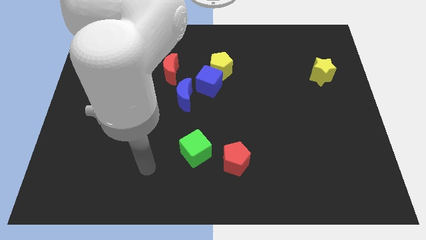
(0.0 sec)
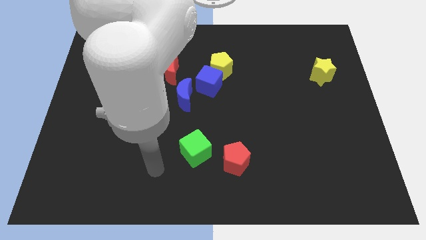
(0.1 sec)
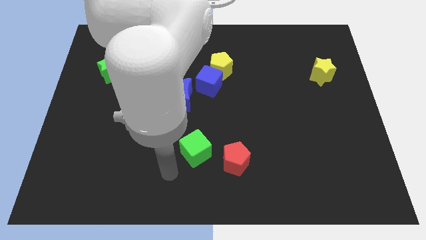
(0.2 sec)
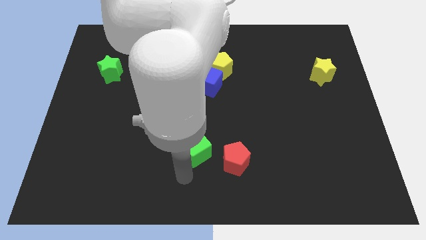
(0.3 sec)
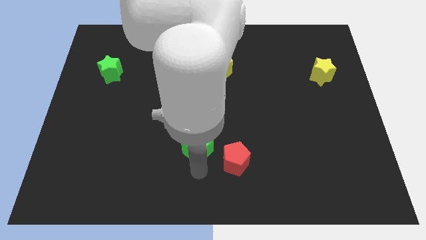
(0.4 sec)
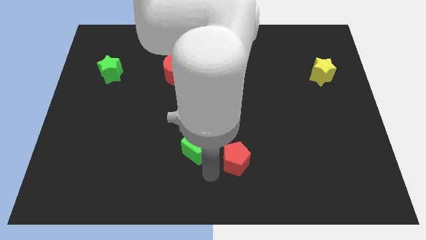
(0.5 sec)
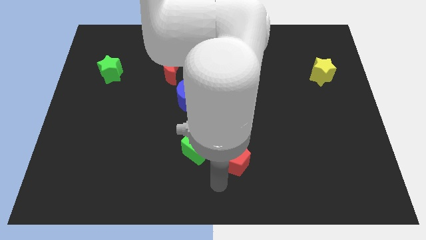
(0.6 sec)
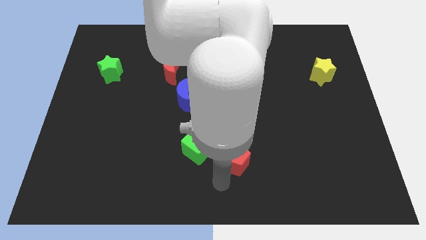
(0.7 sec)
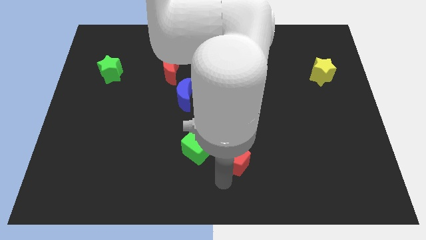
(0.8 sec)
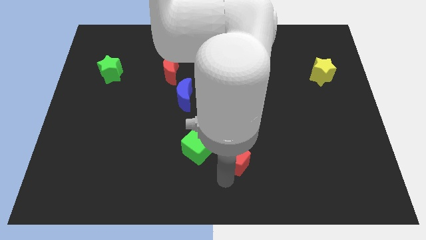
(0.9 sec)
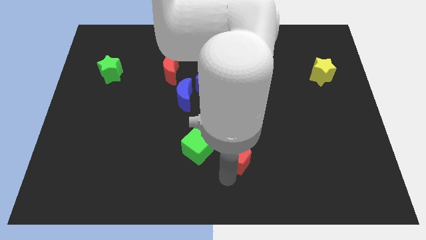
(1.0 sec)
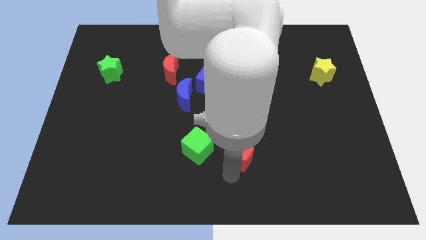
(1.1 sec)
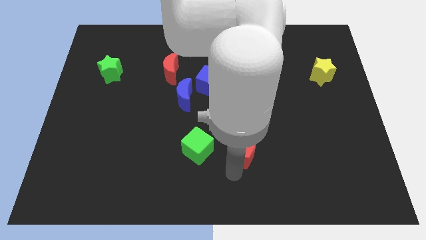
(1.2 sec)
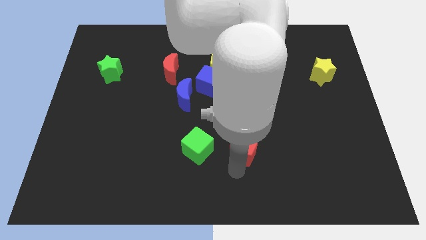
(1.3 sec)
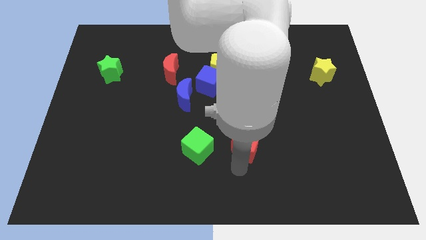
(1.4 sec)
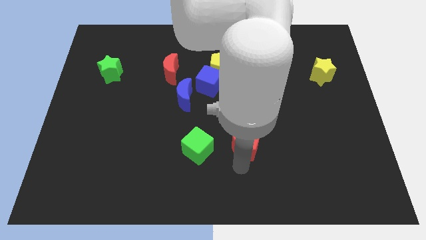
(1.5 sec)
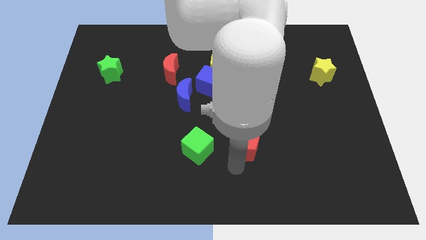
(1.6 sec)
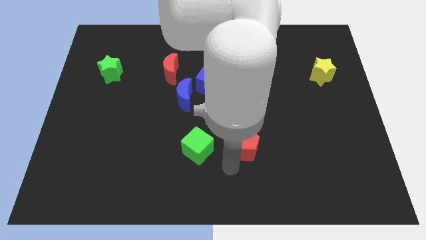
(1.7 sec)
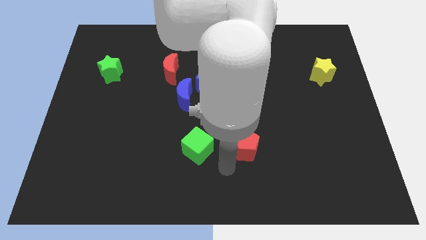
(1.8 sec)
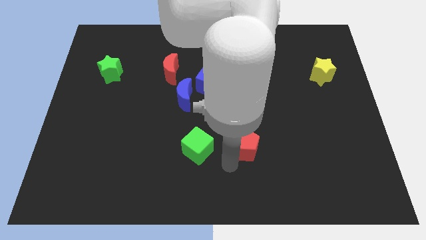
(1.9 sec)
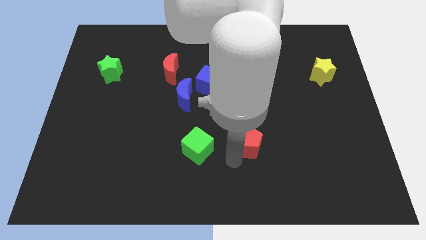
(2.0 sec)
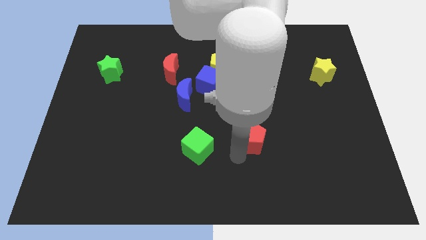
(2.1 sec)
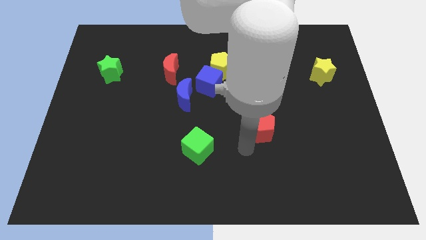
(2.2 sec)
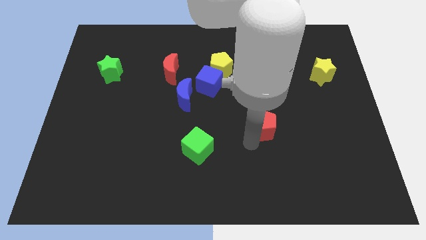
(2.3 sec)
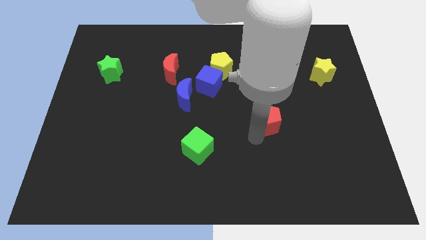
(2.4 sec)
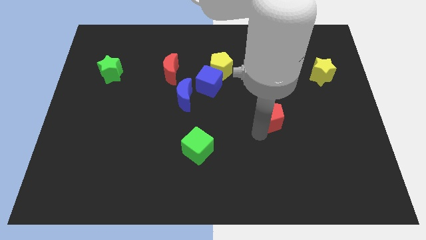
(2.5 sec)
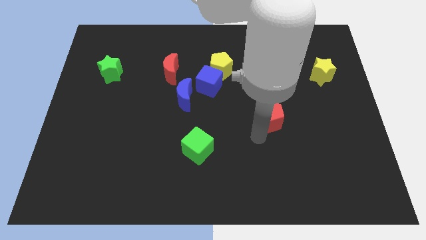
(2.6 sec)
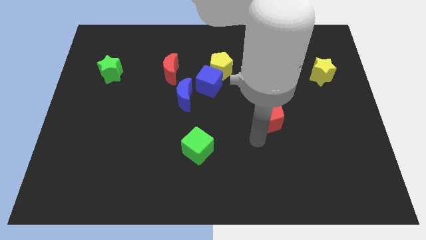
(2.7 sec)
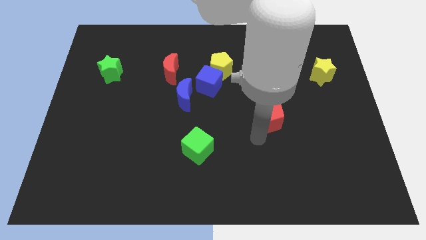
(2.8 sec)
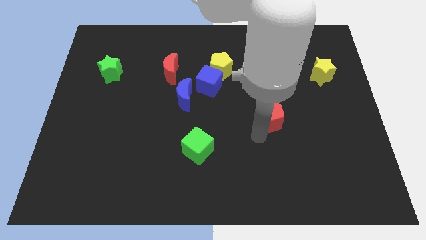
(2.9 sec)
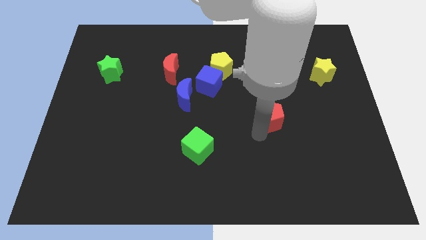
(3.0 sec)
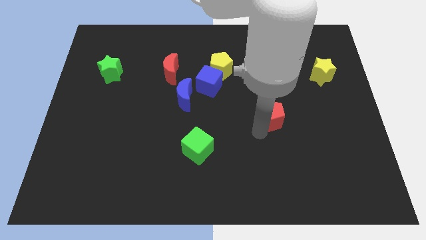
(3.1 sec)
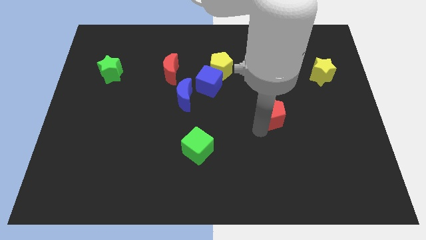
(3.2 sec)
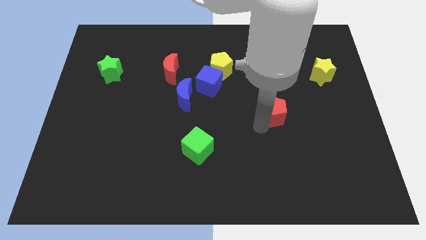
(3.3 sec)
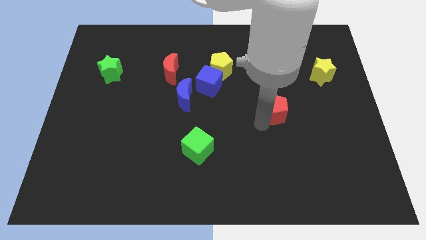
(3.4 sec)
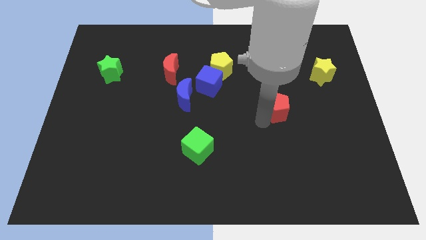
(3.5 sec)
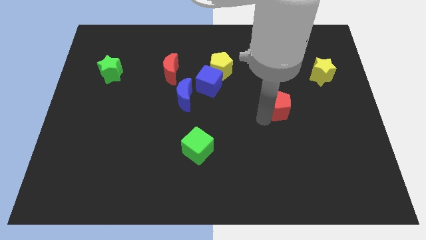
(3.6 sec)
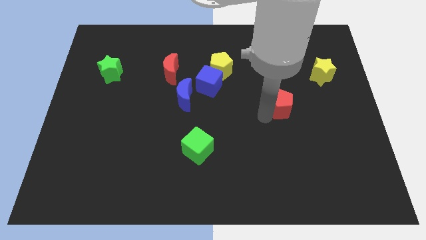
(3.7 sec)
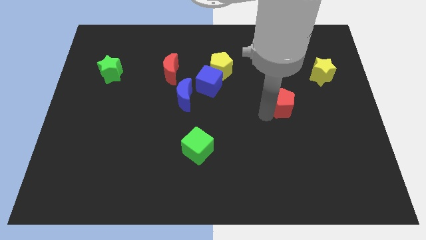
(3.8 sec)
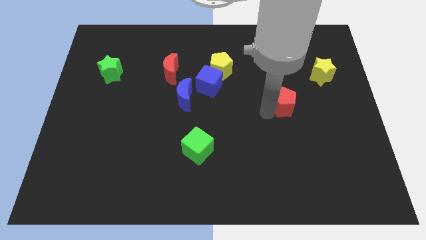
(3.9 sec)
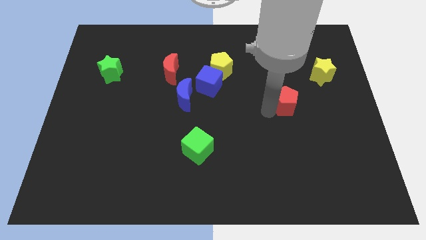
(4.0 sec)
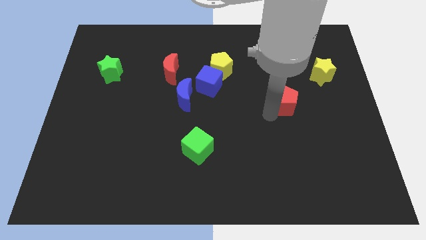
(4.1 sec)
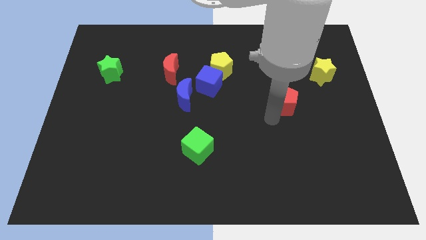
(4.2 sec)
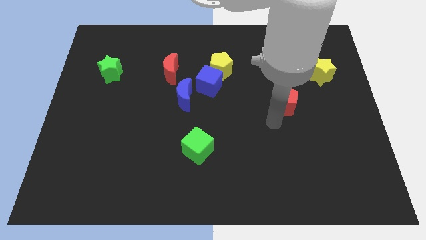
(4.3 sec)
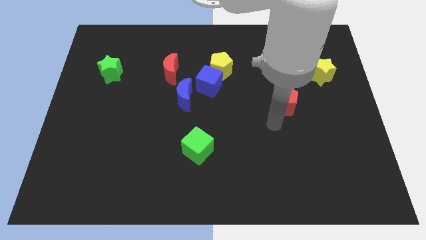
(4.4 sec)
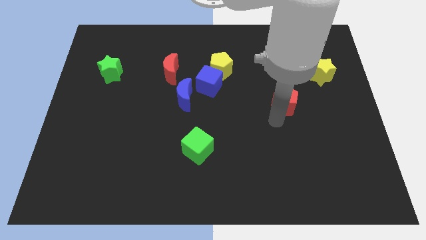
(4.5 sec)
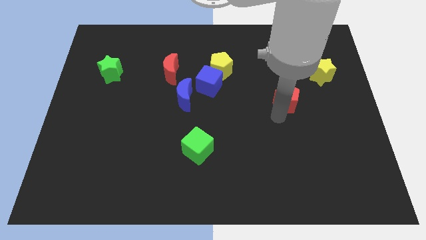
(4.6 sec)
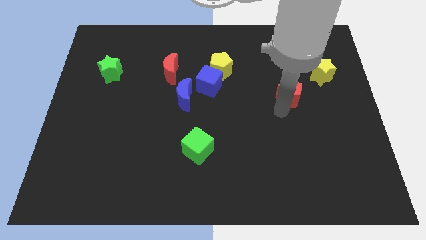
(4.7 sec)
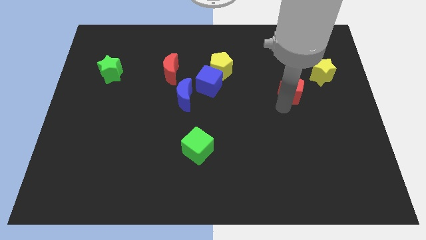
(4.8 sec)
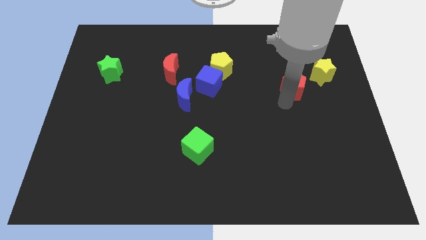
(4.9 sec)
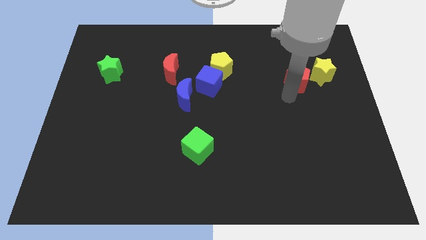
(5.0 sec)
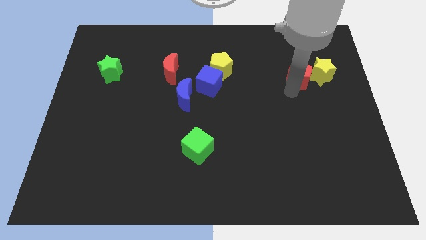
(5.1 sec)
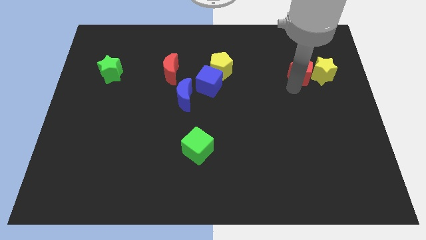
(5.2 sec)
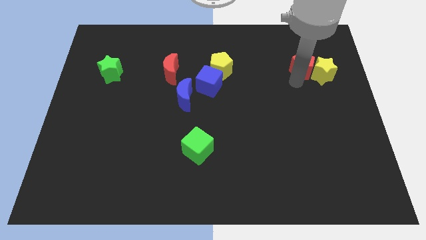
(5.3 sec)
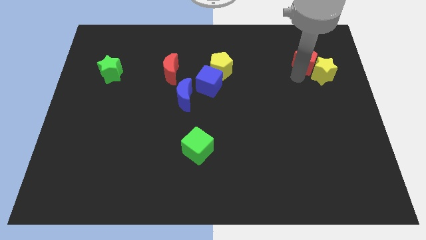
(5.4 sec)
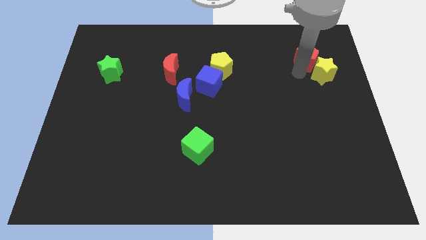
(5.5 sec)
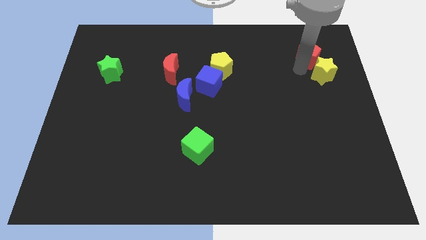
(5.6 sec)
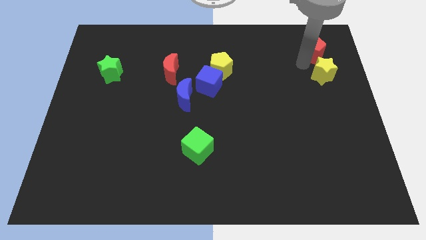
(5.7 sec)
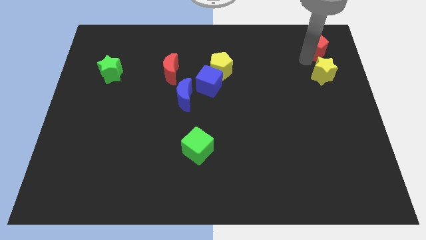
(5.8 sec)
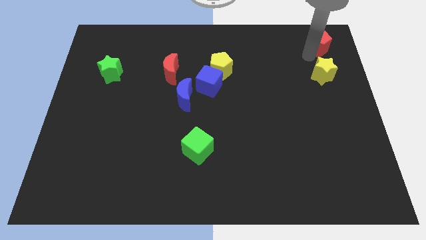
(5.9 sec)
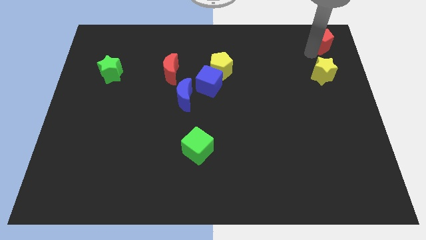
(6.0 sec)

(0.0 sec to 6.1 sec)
slide the red pentagon to the top right corner

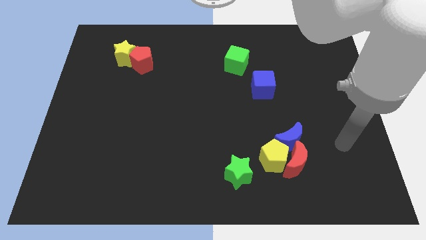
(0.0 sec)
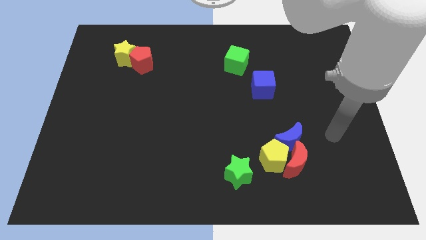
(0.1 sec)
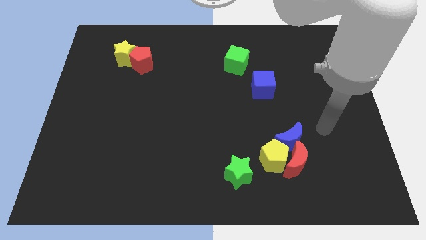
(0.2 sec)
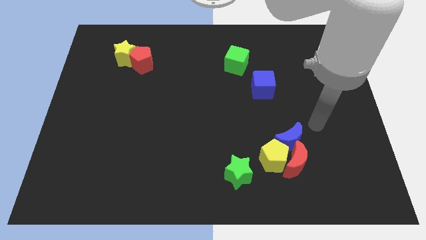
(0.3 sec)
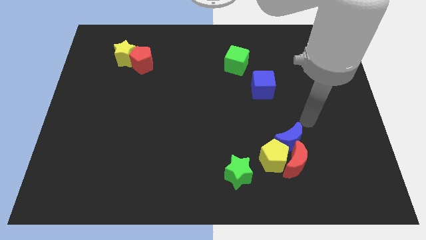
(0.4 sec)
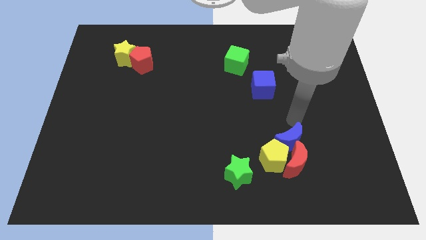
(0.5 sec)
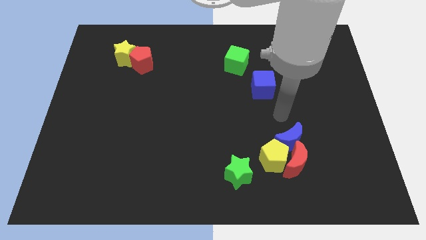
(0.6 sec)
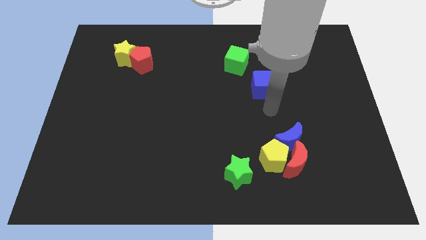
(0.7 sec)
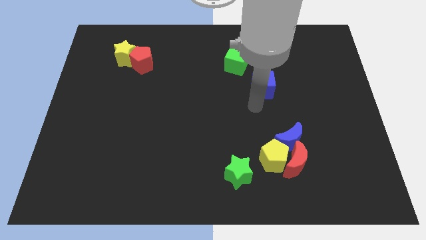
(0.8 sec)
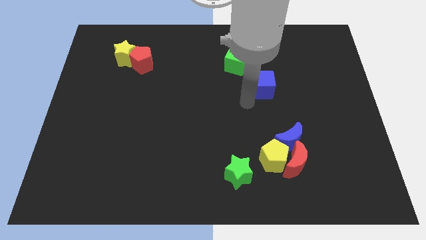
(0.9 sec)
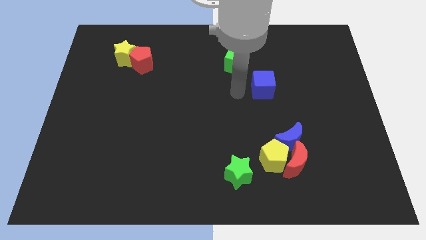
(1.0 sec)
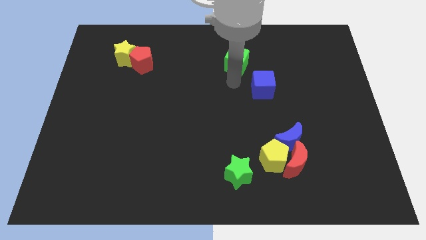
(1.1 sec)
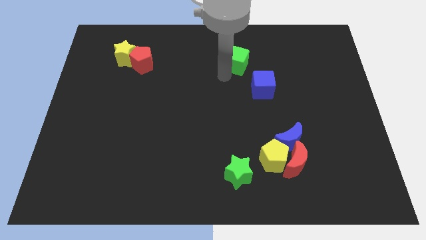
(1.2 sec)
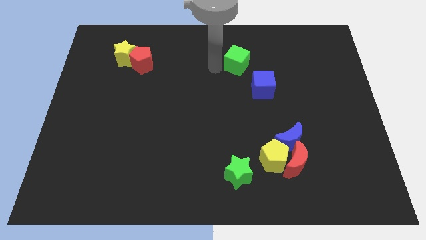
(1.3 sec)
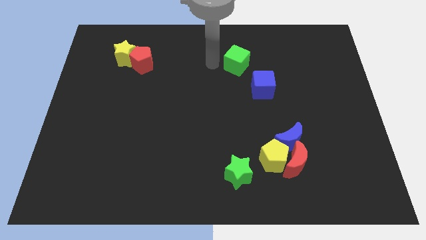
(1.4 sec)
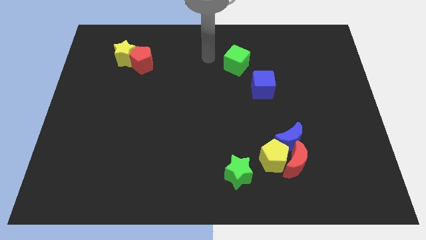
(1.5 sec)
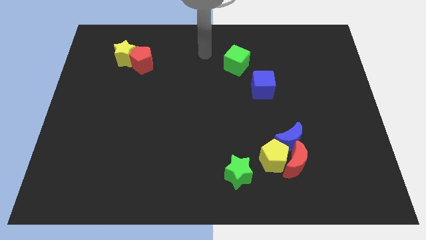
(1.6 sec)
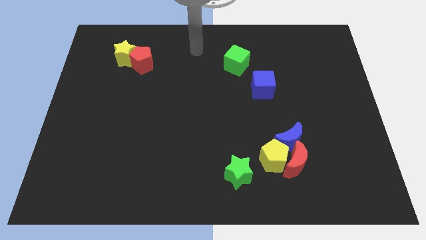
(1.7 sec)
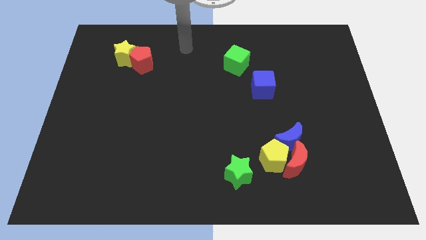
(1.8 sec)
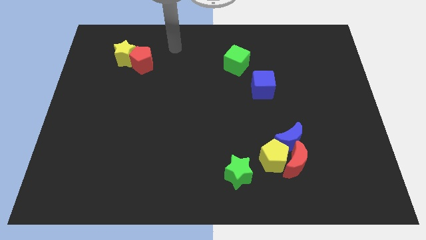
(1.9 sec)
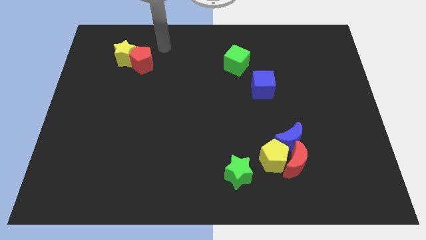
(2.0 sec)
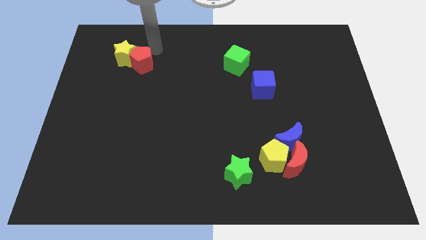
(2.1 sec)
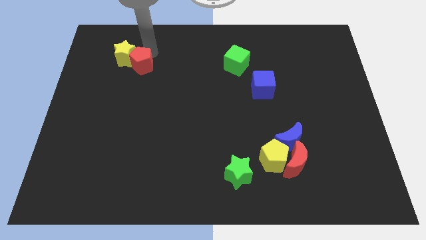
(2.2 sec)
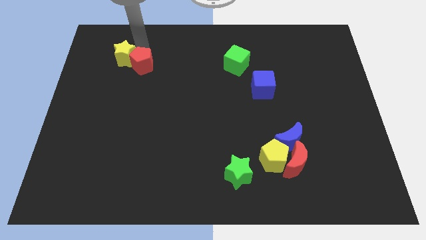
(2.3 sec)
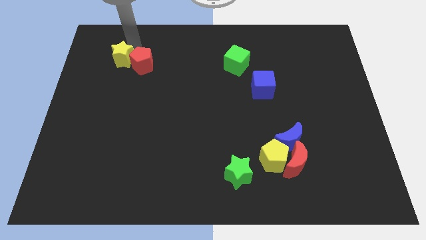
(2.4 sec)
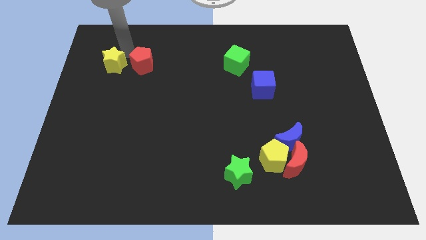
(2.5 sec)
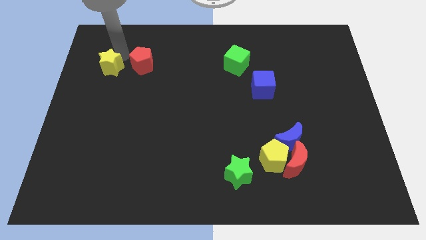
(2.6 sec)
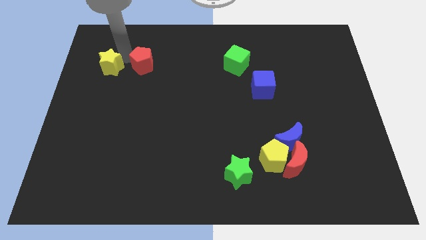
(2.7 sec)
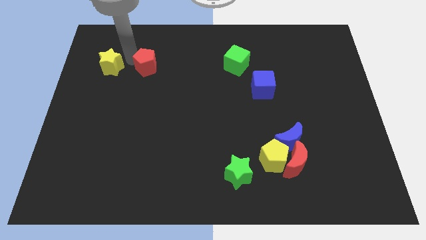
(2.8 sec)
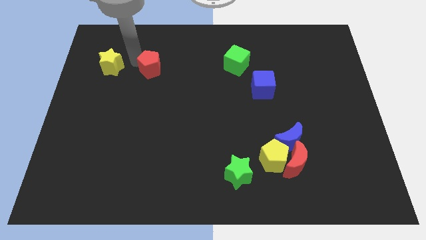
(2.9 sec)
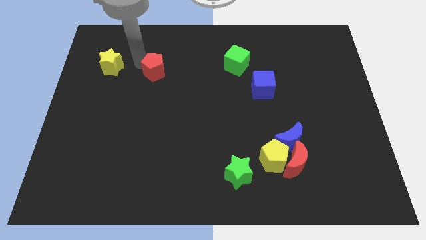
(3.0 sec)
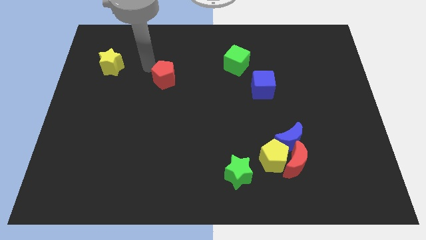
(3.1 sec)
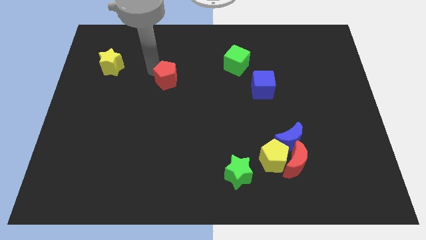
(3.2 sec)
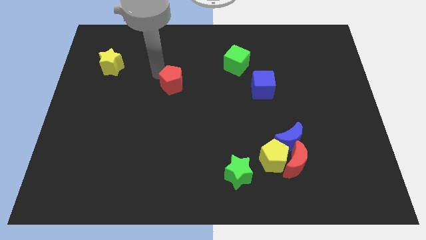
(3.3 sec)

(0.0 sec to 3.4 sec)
put the red pentagon to the middle
